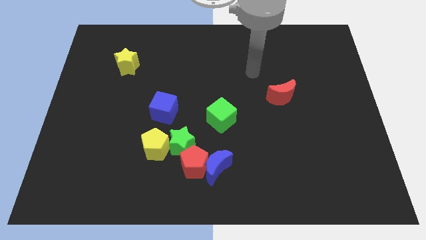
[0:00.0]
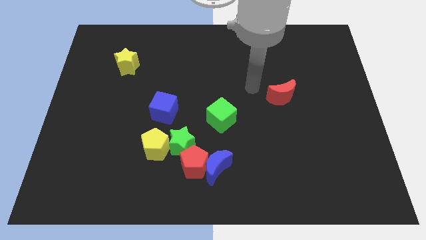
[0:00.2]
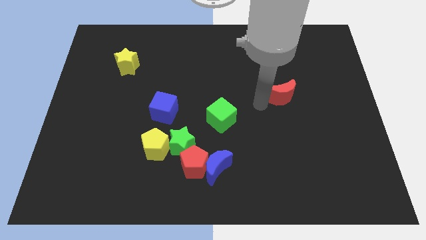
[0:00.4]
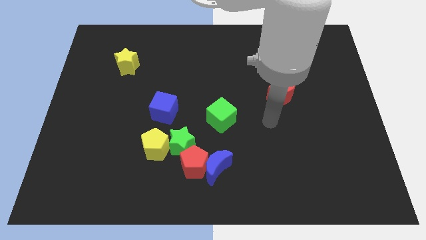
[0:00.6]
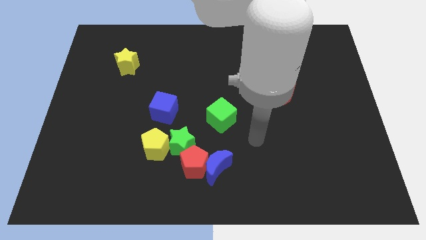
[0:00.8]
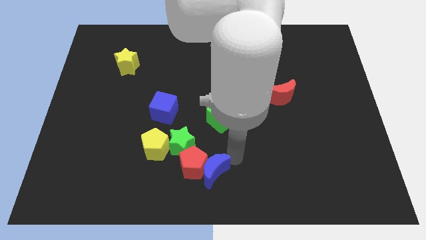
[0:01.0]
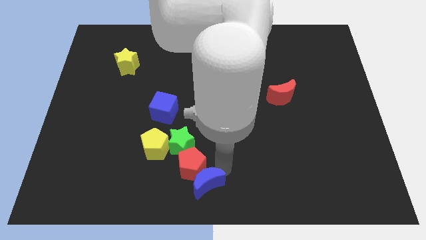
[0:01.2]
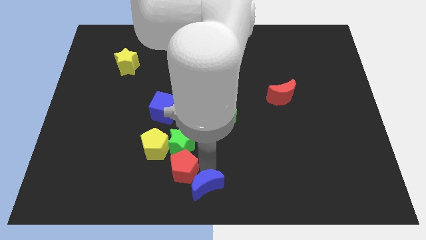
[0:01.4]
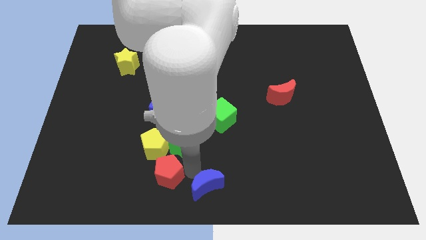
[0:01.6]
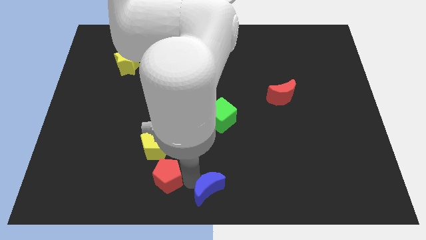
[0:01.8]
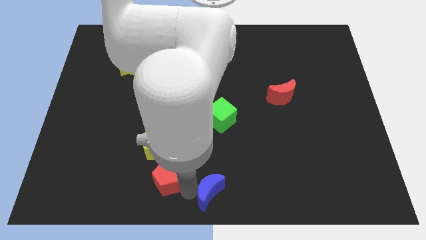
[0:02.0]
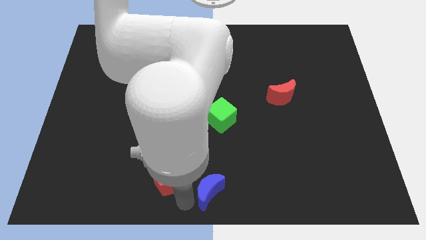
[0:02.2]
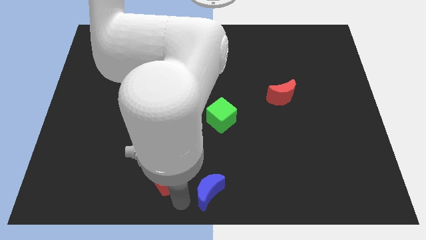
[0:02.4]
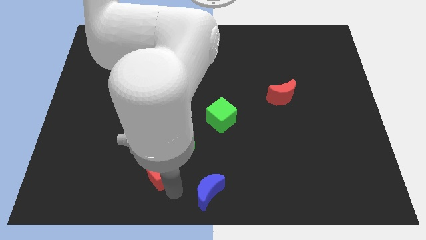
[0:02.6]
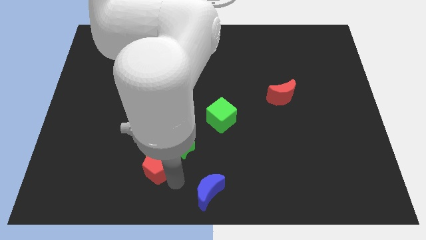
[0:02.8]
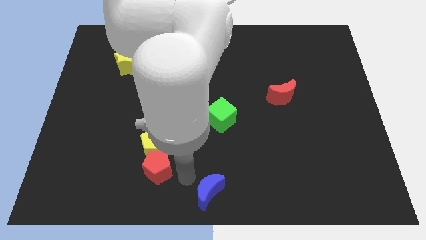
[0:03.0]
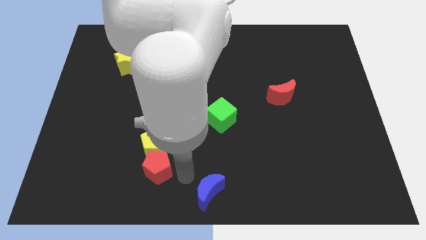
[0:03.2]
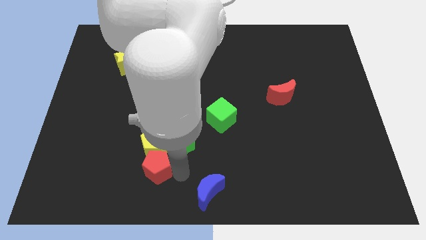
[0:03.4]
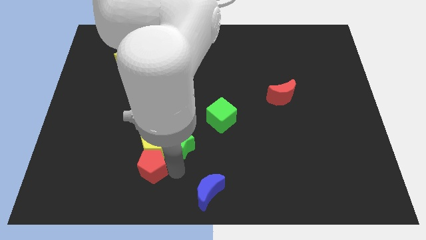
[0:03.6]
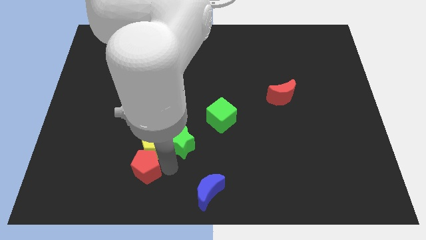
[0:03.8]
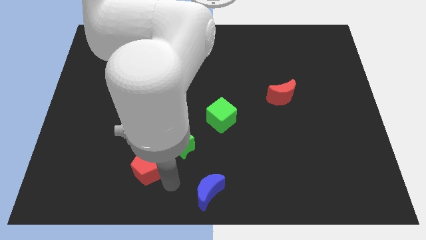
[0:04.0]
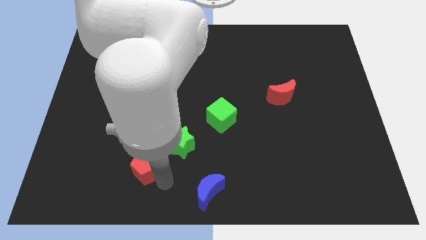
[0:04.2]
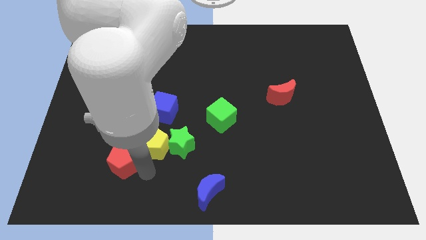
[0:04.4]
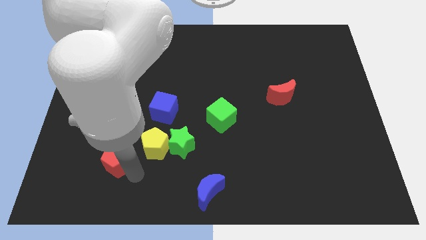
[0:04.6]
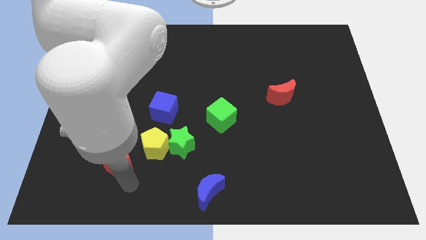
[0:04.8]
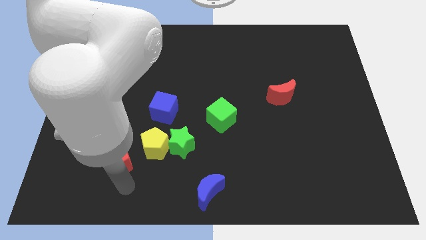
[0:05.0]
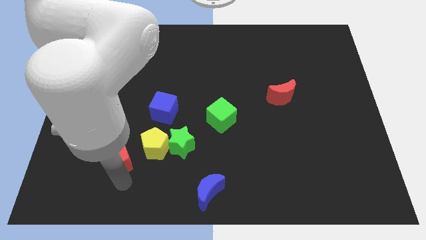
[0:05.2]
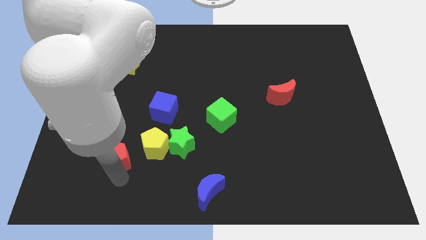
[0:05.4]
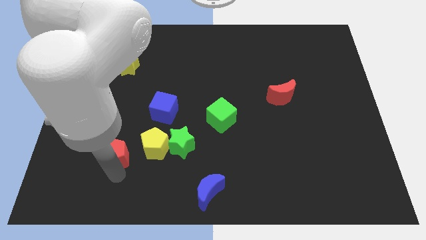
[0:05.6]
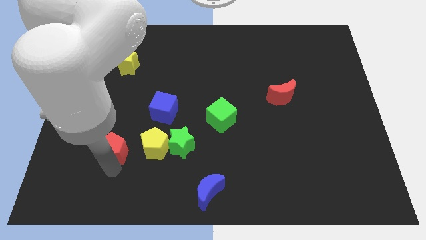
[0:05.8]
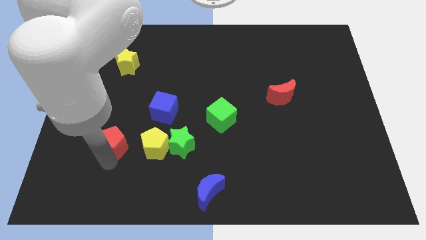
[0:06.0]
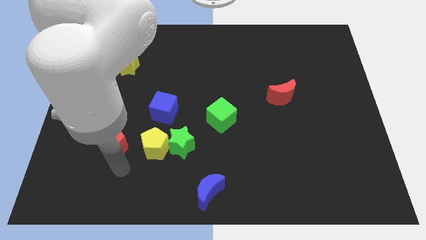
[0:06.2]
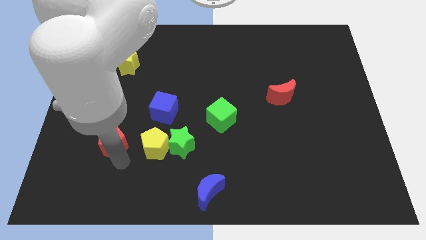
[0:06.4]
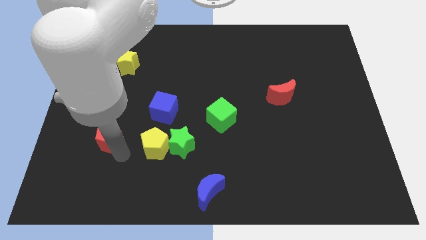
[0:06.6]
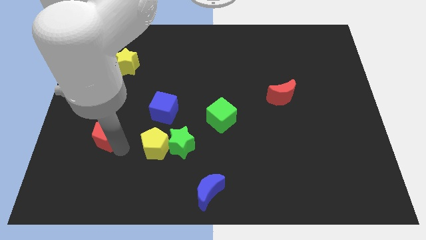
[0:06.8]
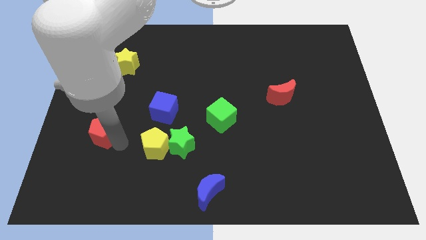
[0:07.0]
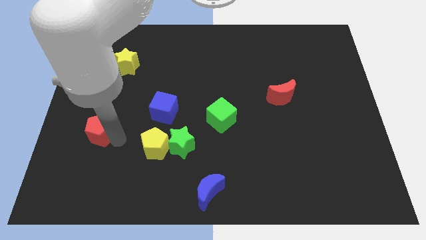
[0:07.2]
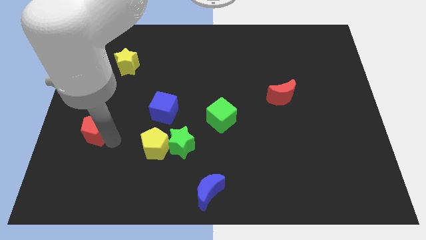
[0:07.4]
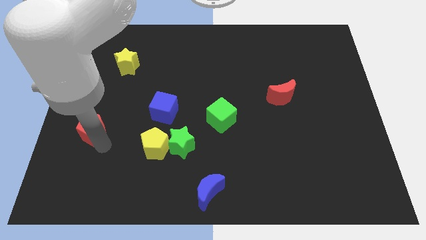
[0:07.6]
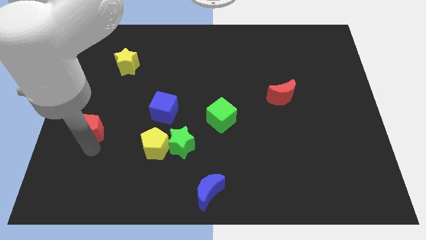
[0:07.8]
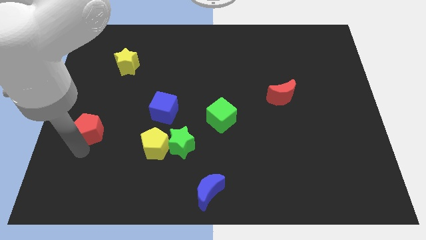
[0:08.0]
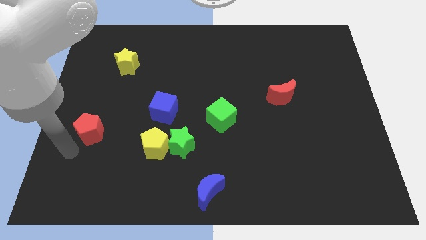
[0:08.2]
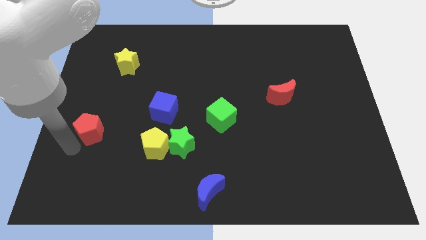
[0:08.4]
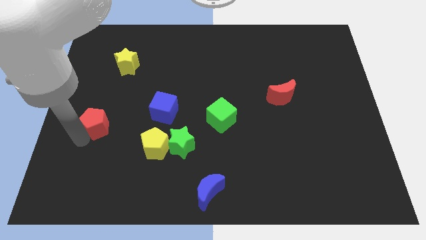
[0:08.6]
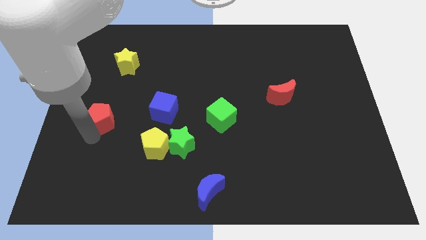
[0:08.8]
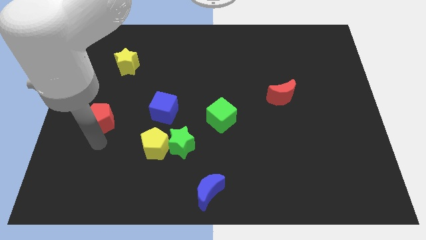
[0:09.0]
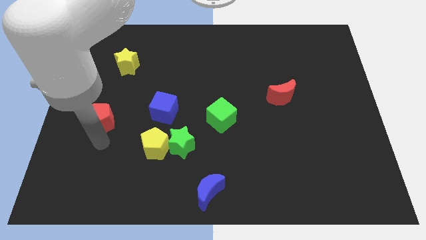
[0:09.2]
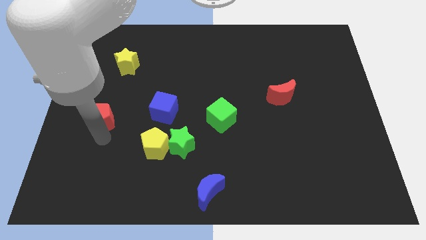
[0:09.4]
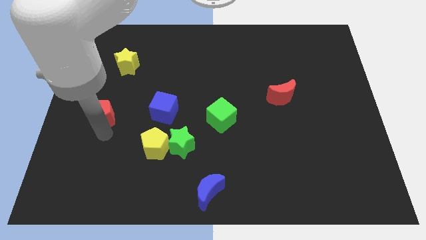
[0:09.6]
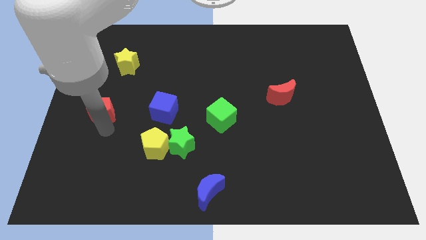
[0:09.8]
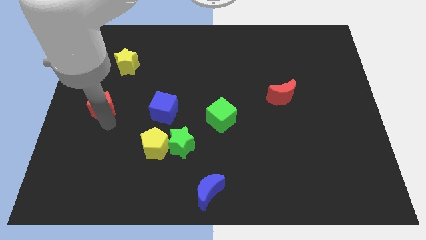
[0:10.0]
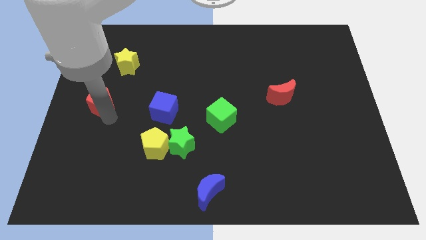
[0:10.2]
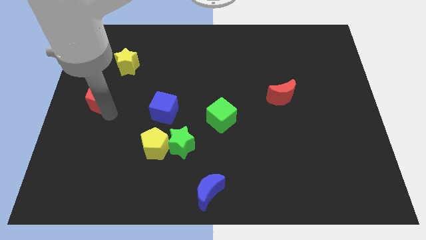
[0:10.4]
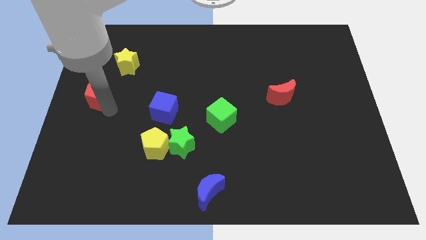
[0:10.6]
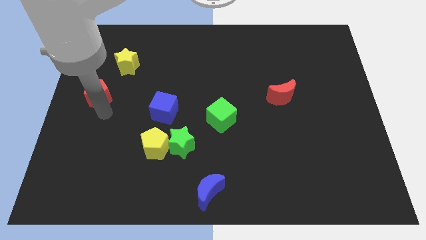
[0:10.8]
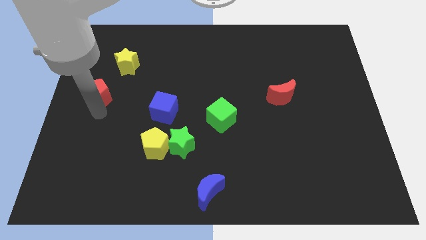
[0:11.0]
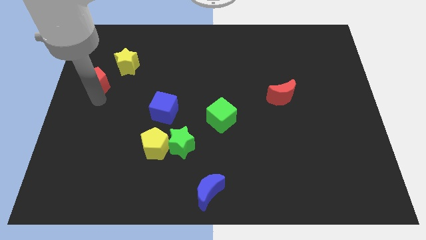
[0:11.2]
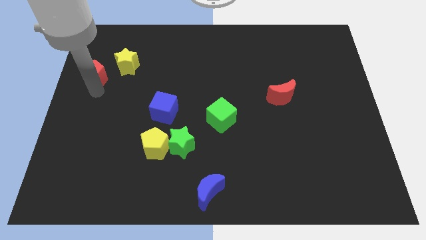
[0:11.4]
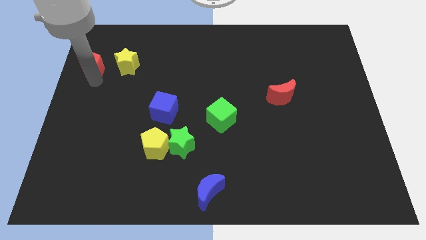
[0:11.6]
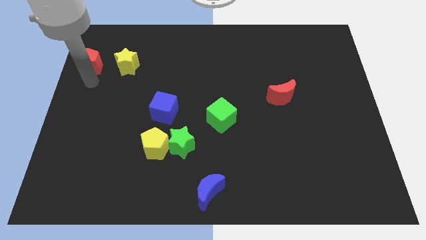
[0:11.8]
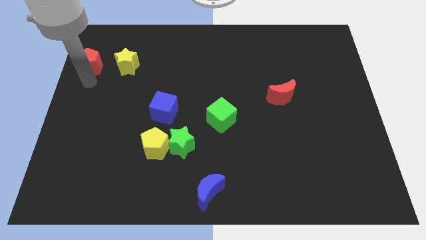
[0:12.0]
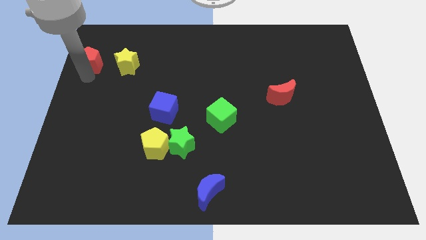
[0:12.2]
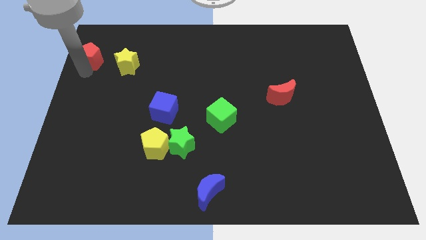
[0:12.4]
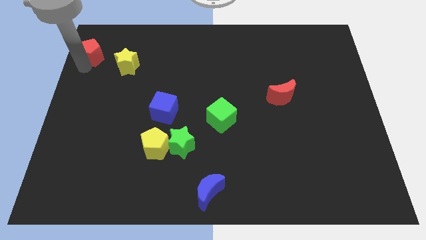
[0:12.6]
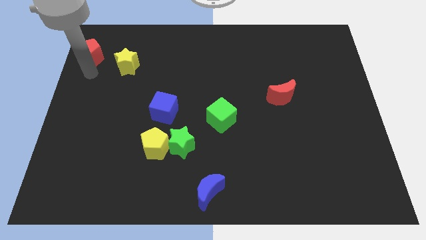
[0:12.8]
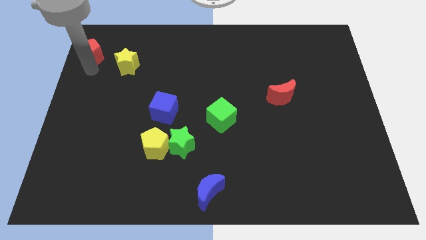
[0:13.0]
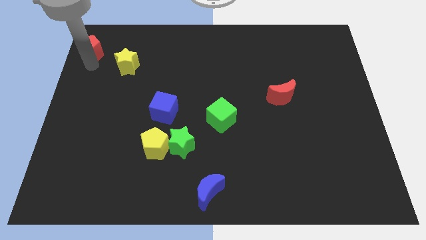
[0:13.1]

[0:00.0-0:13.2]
push the red pentagon to the upper left corner
